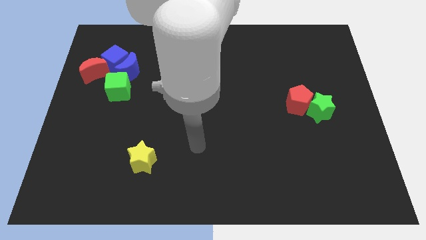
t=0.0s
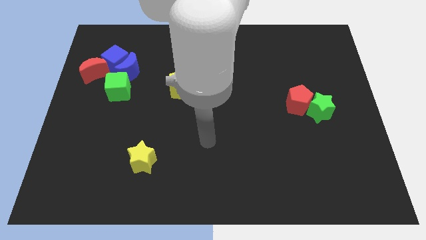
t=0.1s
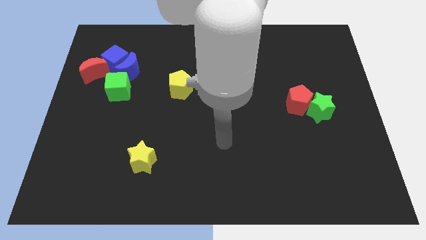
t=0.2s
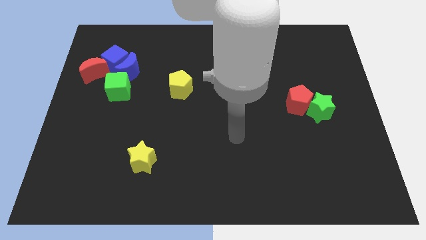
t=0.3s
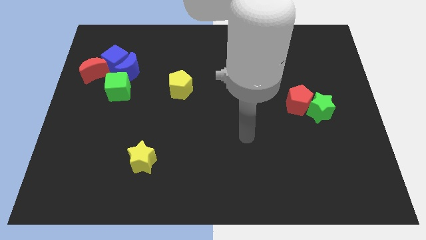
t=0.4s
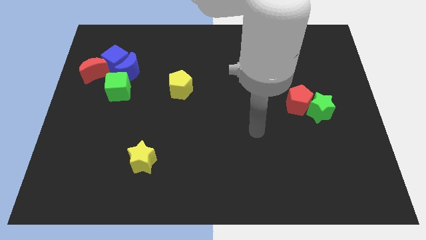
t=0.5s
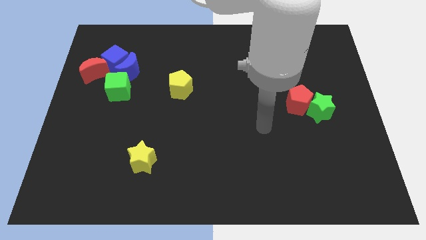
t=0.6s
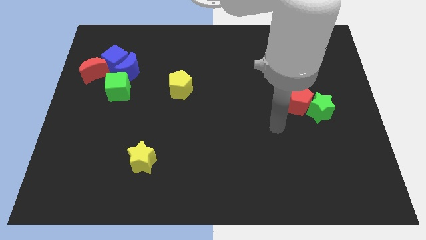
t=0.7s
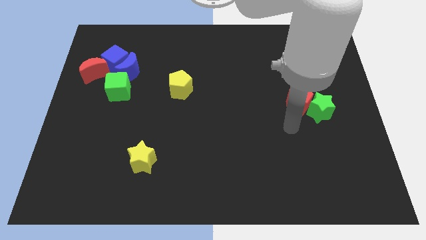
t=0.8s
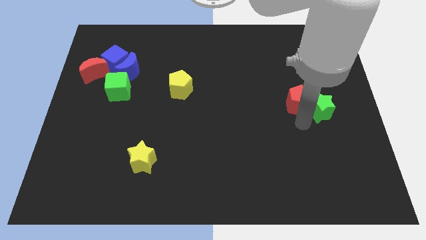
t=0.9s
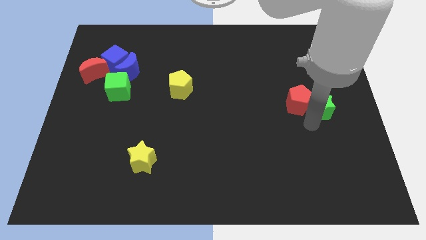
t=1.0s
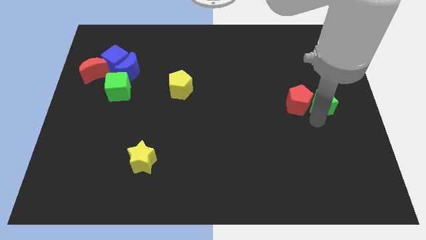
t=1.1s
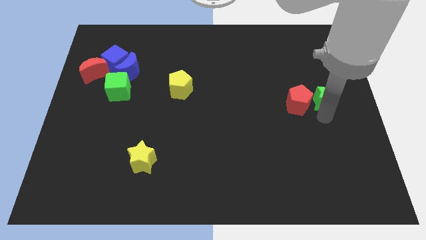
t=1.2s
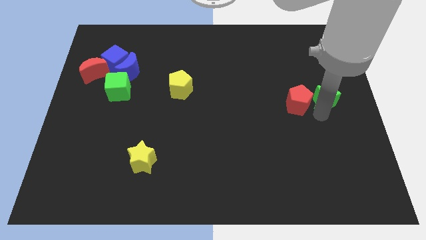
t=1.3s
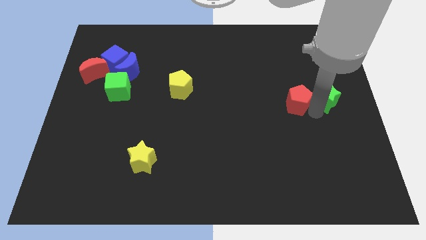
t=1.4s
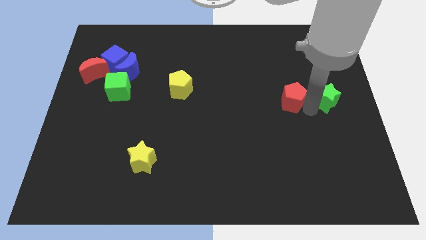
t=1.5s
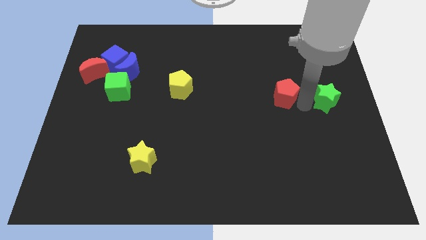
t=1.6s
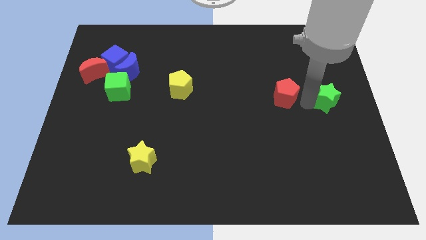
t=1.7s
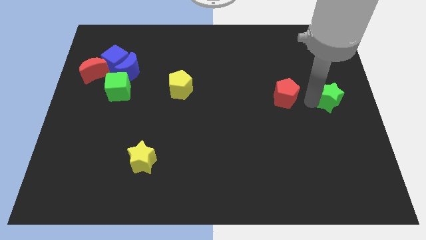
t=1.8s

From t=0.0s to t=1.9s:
separate the red pentagon from the green star

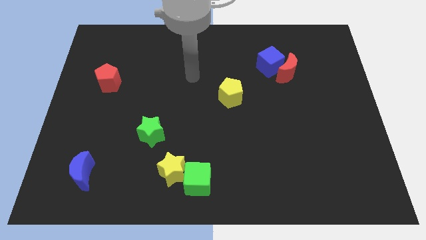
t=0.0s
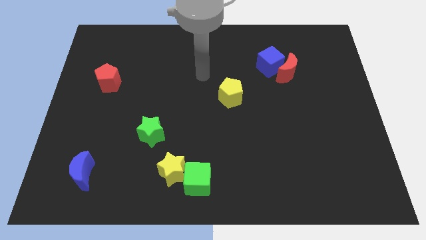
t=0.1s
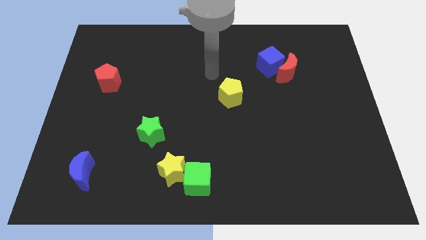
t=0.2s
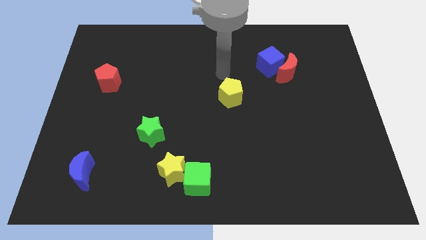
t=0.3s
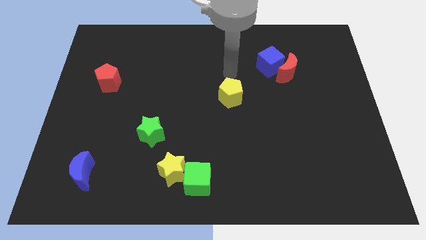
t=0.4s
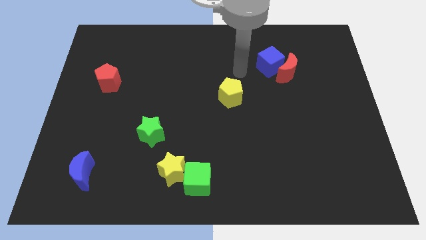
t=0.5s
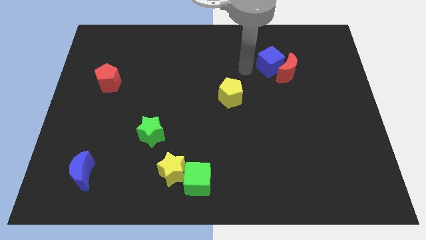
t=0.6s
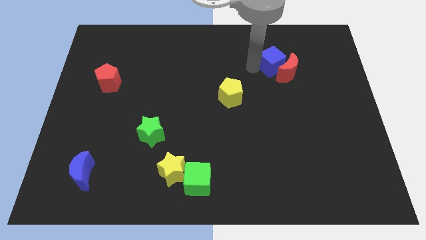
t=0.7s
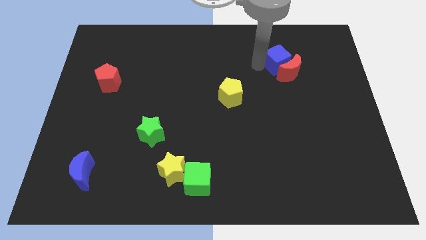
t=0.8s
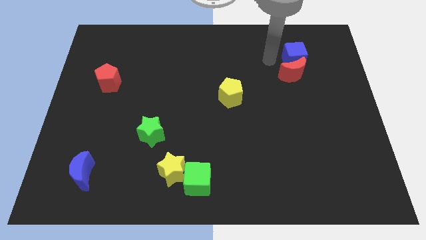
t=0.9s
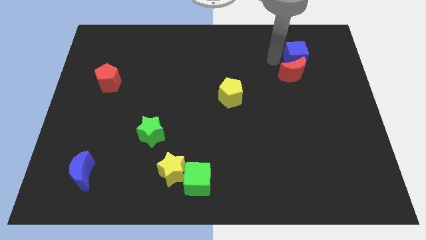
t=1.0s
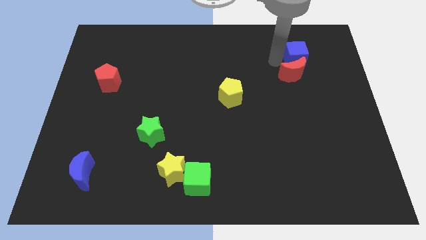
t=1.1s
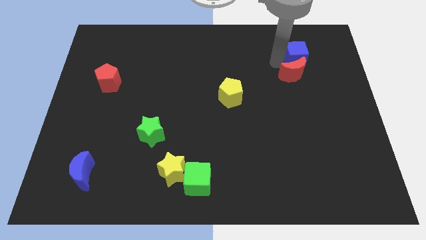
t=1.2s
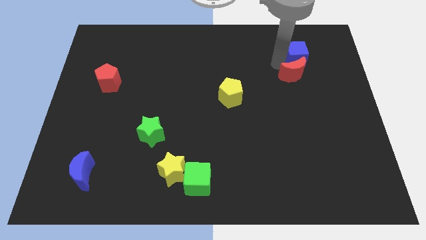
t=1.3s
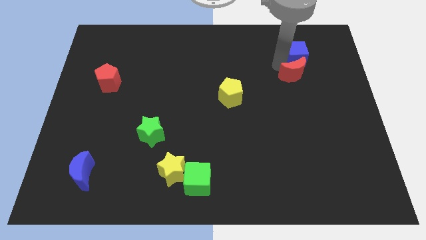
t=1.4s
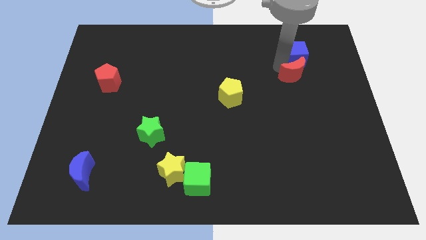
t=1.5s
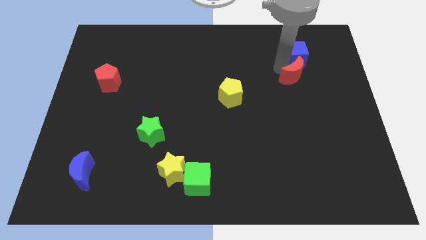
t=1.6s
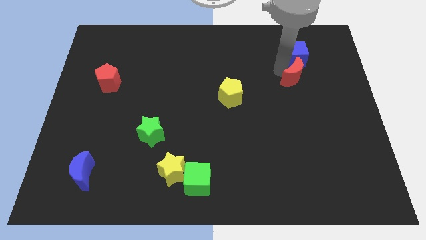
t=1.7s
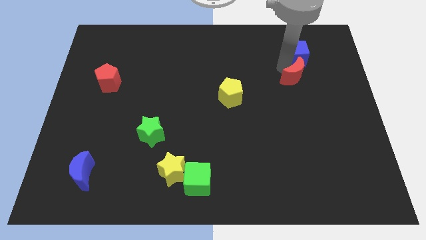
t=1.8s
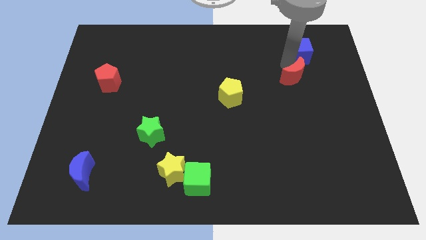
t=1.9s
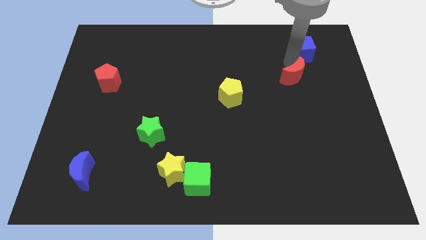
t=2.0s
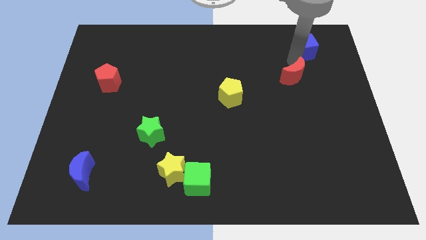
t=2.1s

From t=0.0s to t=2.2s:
move the red moon away from the blue cube

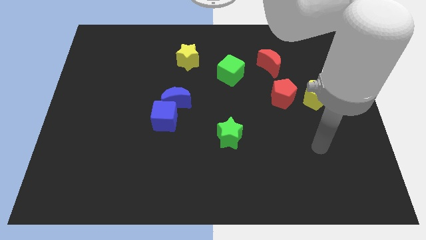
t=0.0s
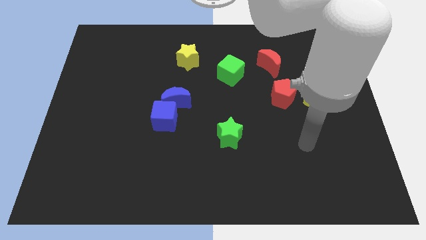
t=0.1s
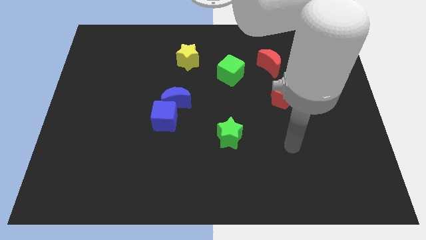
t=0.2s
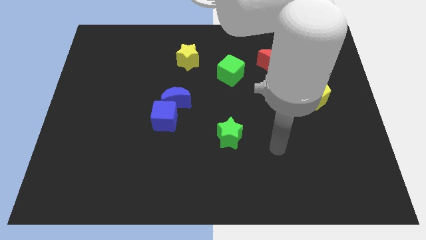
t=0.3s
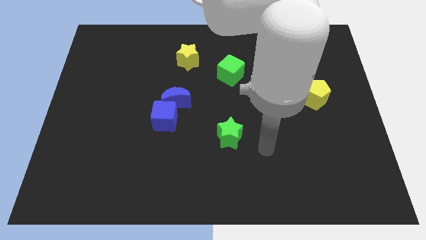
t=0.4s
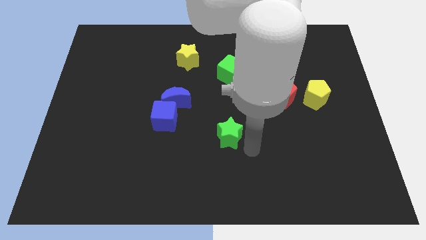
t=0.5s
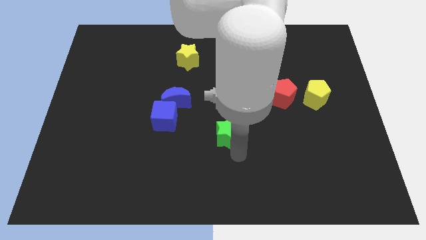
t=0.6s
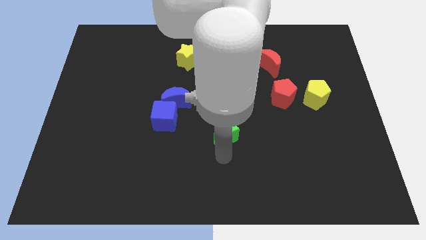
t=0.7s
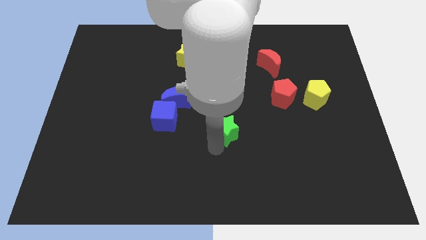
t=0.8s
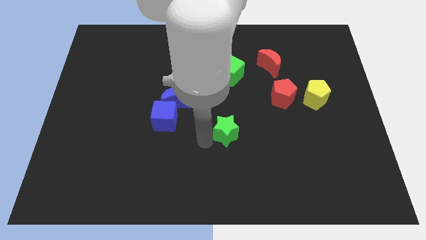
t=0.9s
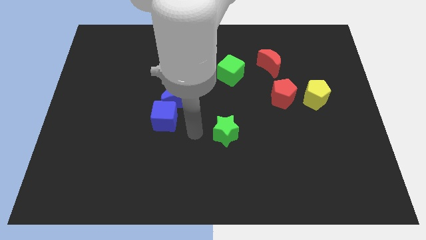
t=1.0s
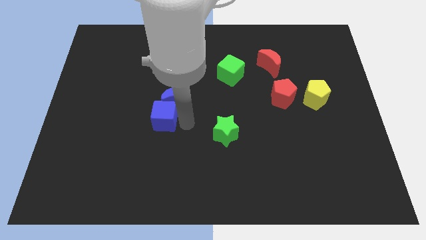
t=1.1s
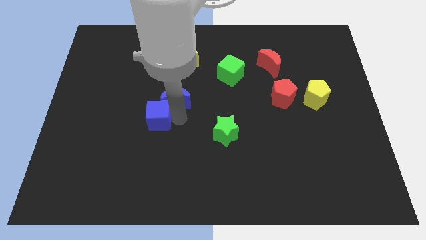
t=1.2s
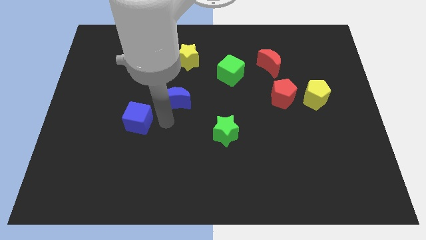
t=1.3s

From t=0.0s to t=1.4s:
separate the blue moon from the blue cube

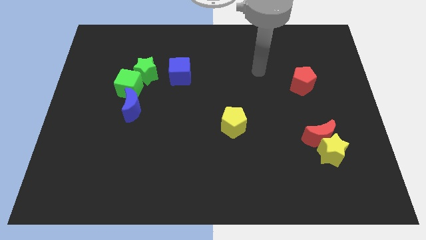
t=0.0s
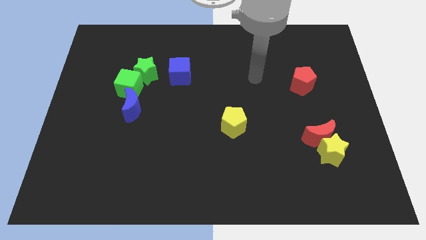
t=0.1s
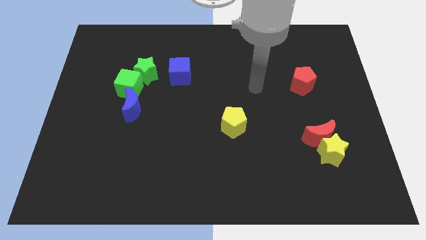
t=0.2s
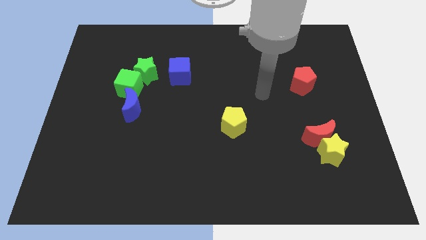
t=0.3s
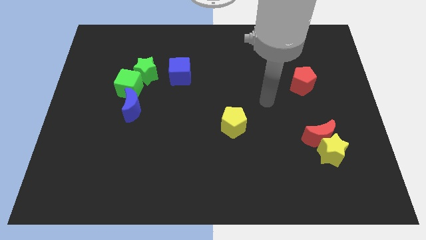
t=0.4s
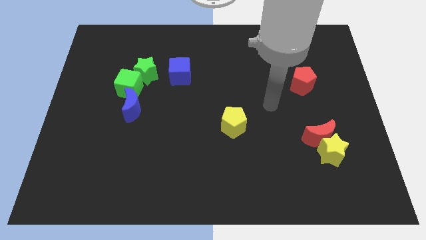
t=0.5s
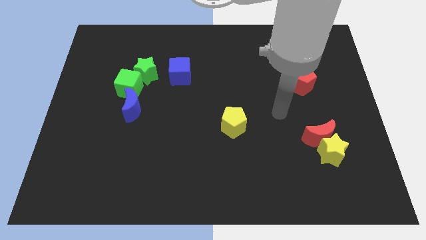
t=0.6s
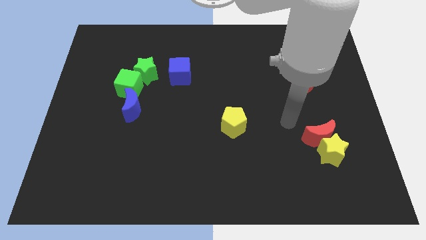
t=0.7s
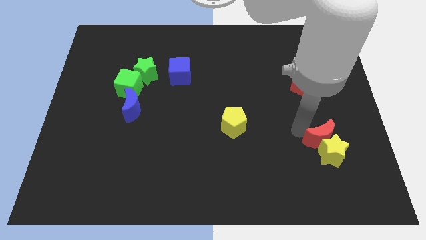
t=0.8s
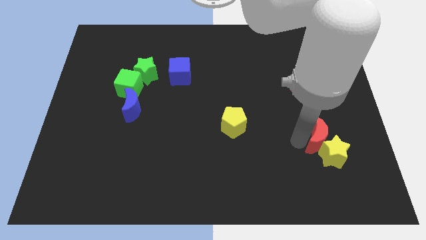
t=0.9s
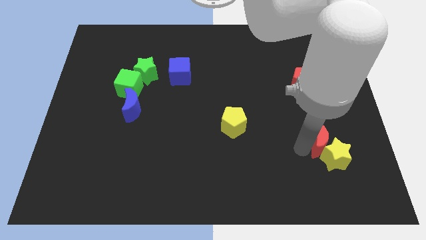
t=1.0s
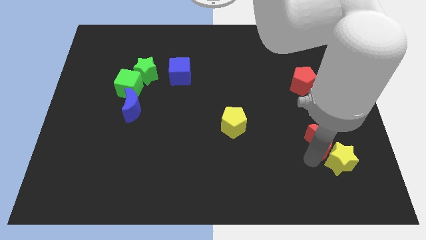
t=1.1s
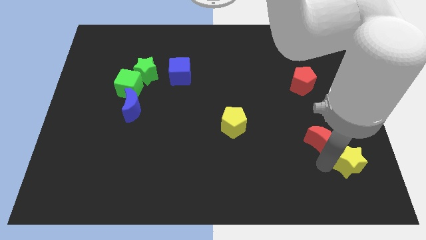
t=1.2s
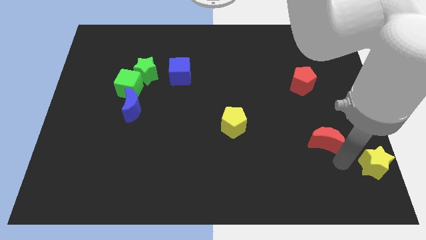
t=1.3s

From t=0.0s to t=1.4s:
pull the red moon apart from the yellow star

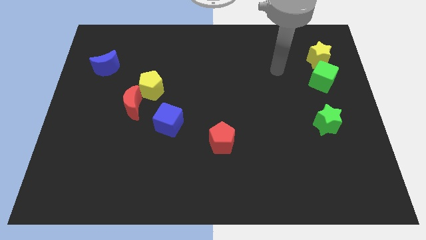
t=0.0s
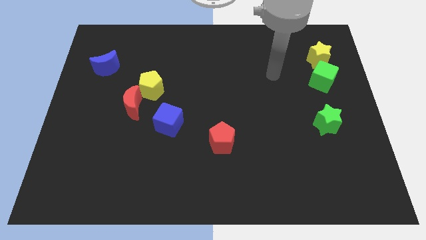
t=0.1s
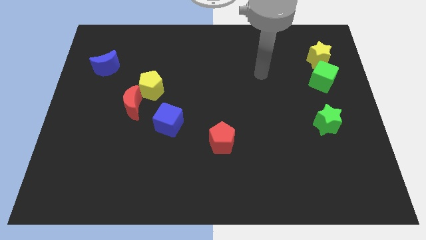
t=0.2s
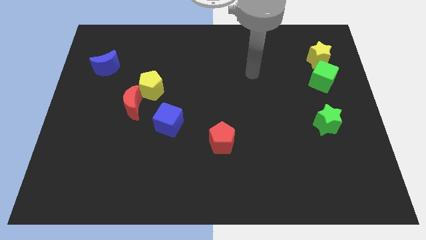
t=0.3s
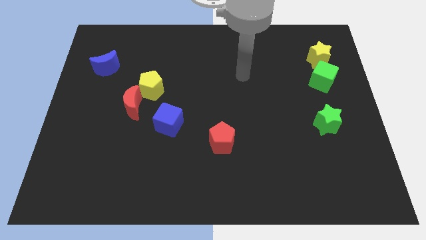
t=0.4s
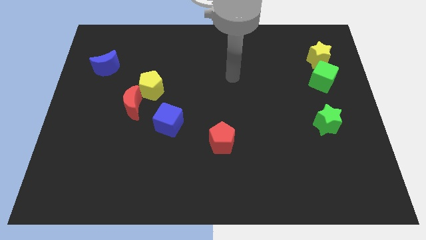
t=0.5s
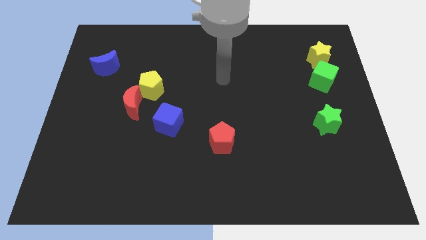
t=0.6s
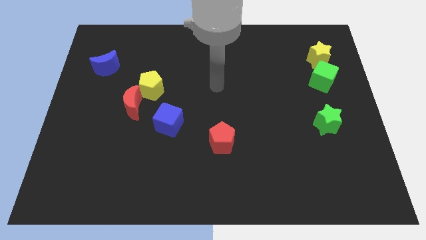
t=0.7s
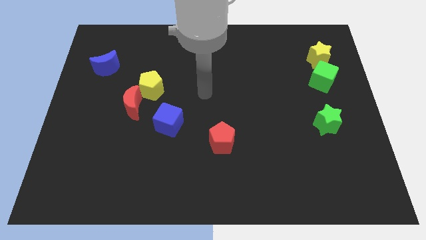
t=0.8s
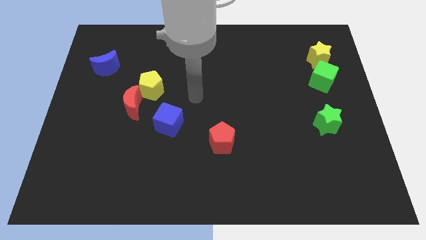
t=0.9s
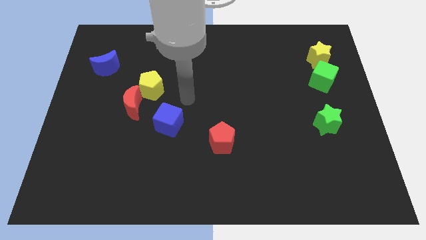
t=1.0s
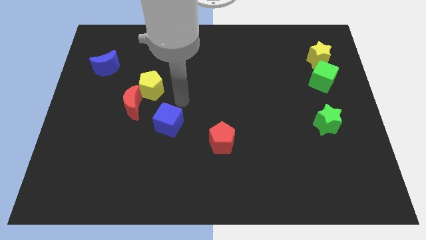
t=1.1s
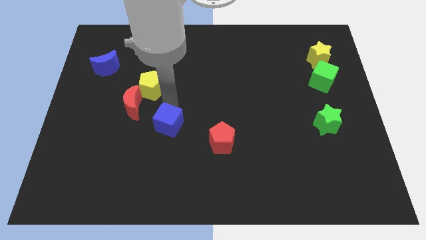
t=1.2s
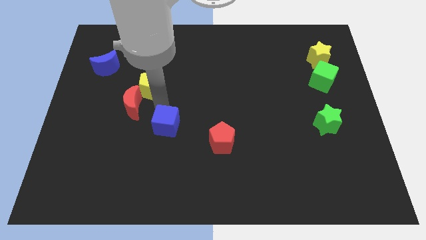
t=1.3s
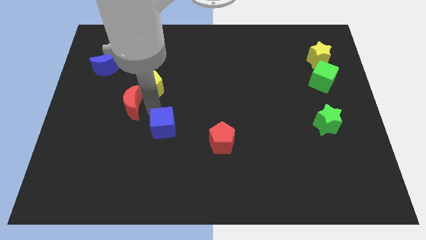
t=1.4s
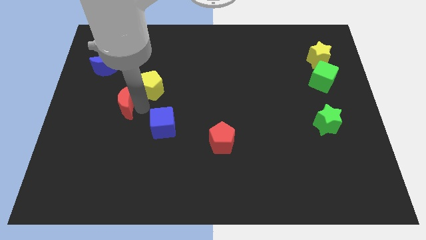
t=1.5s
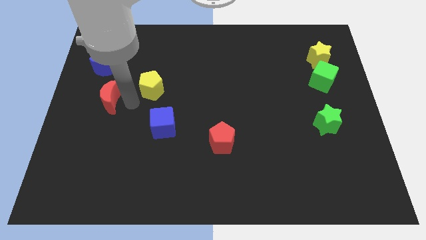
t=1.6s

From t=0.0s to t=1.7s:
separate the yellow pentagon from the red moon

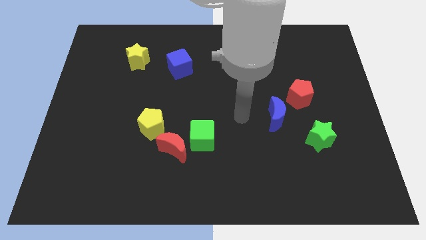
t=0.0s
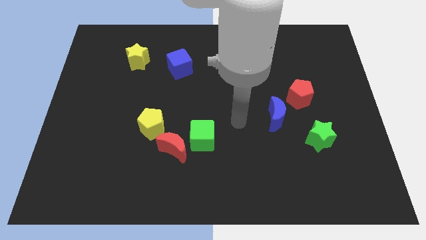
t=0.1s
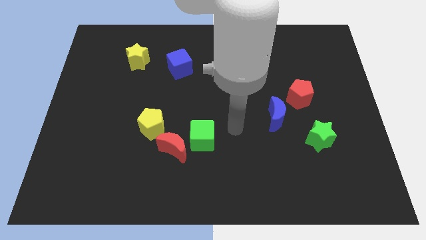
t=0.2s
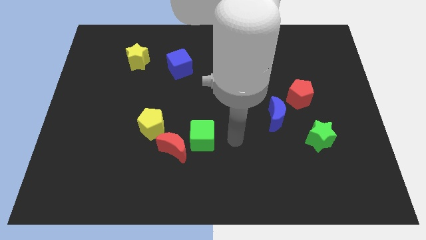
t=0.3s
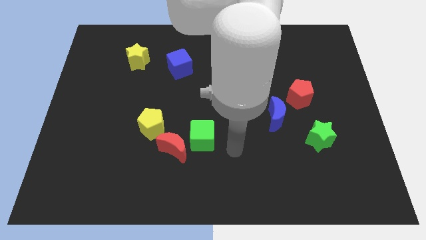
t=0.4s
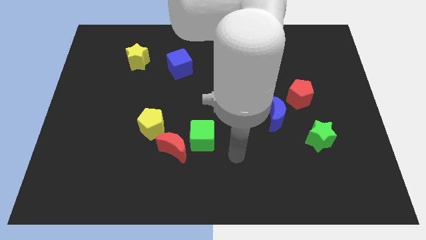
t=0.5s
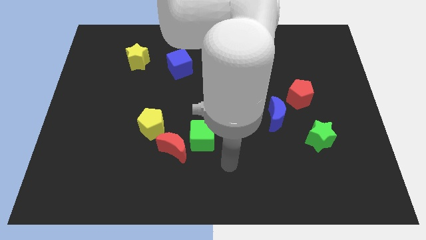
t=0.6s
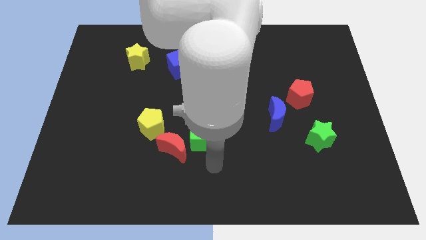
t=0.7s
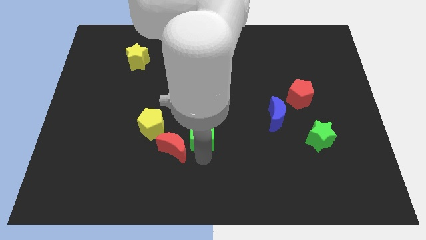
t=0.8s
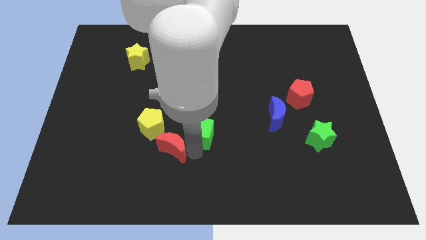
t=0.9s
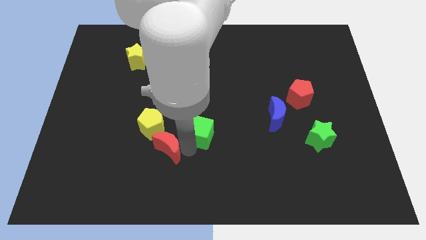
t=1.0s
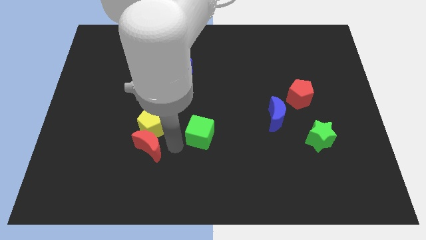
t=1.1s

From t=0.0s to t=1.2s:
separate the green cube from the red moon
